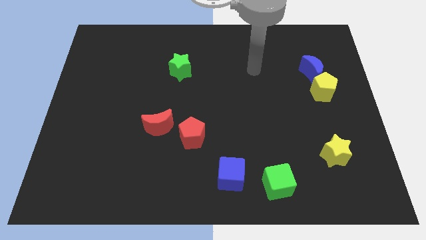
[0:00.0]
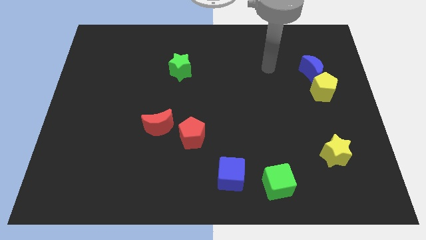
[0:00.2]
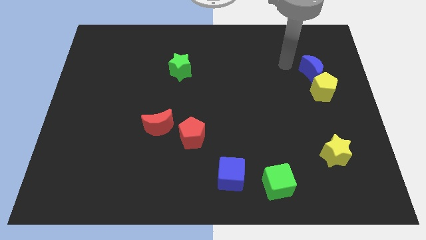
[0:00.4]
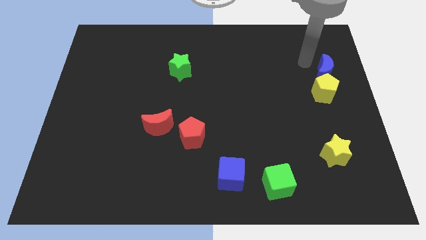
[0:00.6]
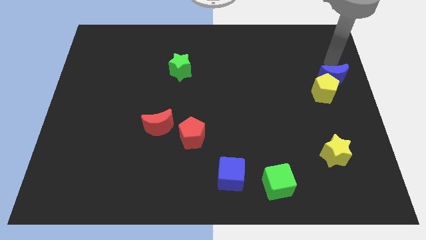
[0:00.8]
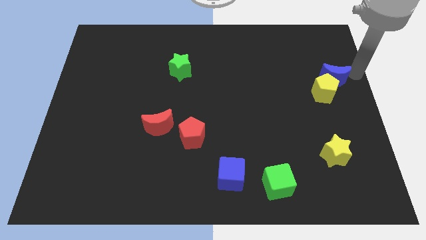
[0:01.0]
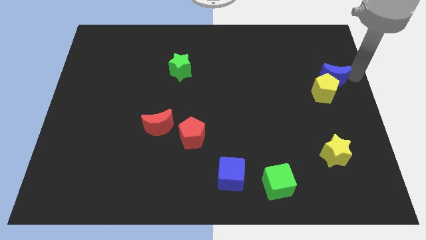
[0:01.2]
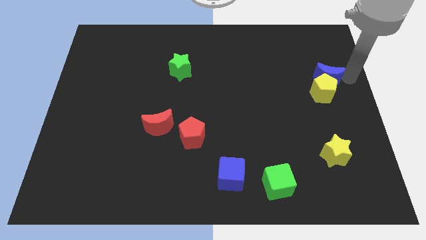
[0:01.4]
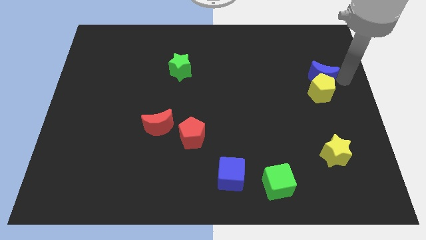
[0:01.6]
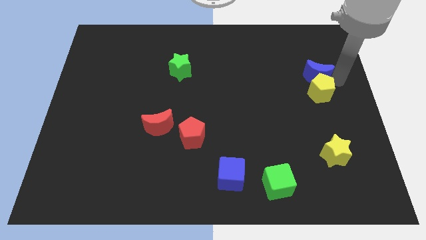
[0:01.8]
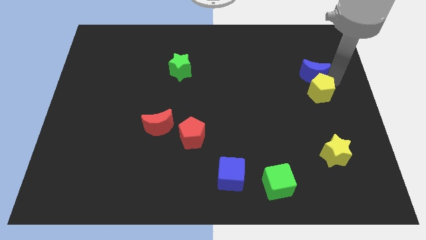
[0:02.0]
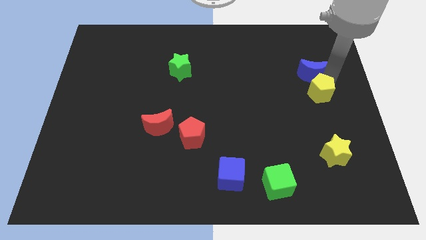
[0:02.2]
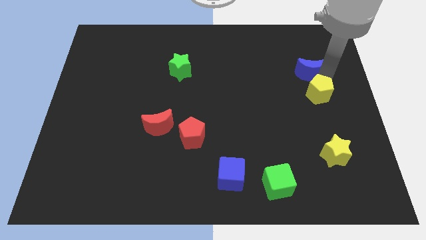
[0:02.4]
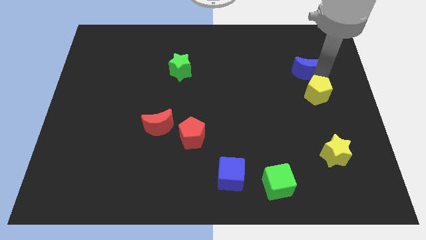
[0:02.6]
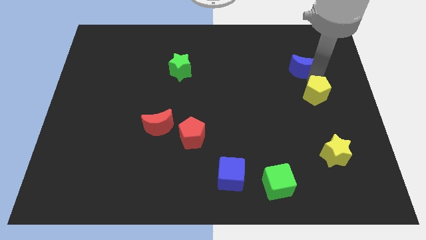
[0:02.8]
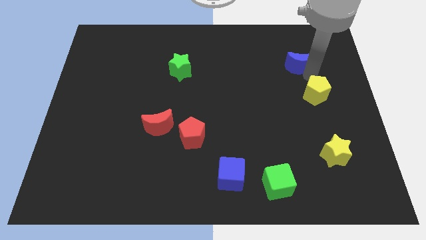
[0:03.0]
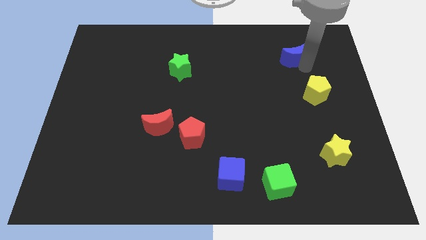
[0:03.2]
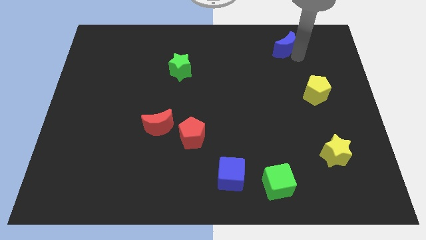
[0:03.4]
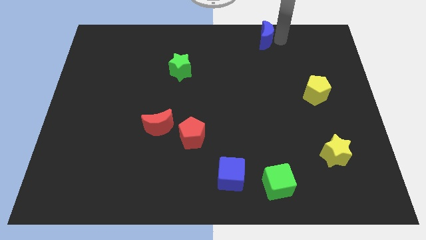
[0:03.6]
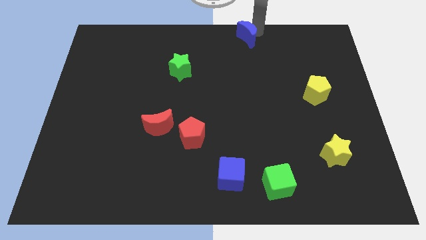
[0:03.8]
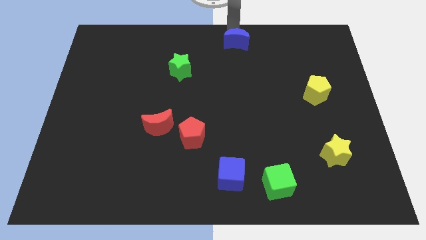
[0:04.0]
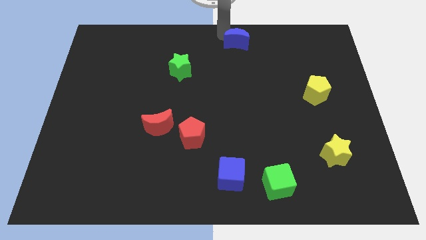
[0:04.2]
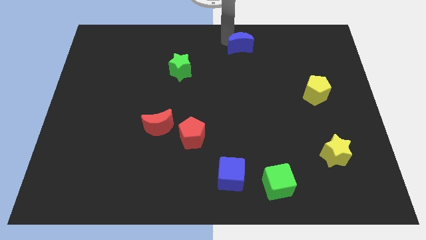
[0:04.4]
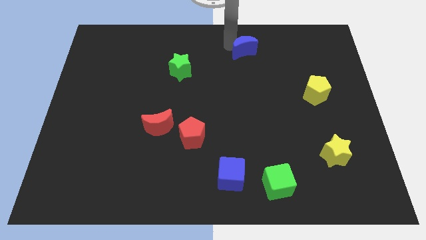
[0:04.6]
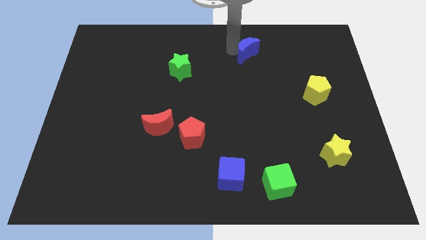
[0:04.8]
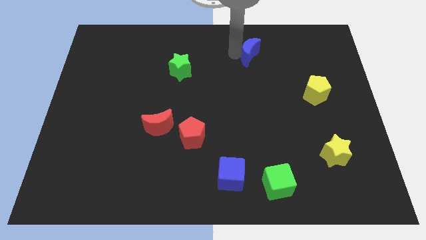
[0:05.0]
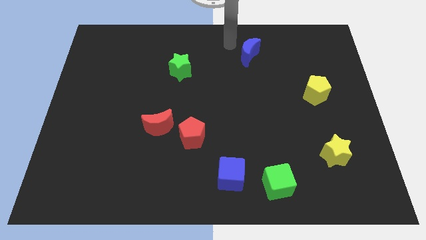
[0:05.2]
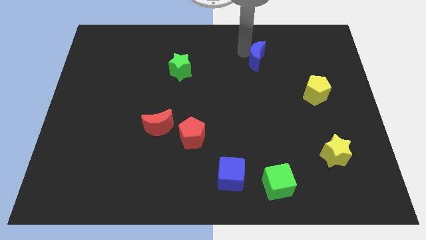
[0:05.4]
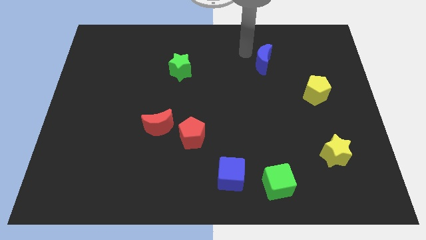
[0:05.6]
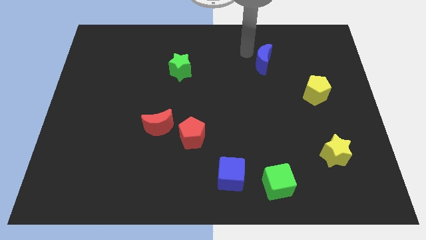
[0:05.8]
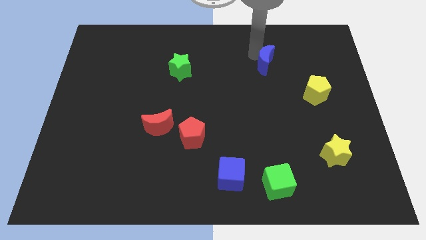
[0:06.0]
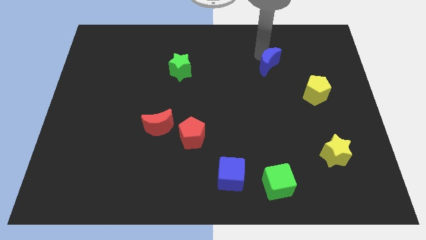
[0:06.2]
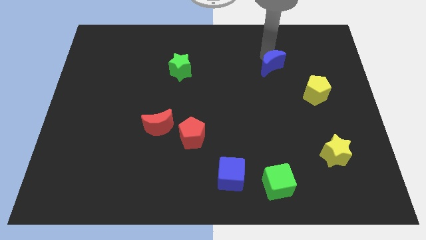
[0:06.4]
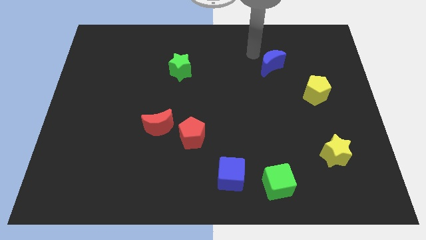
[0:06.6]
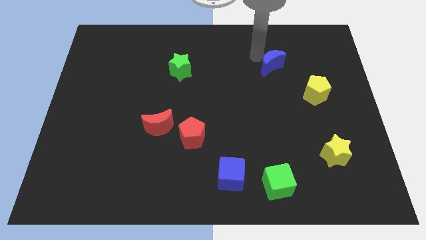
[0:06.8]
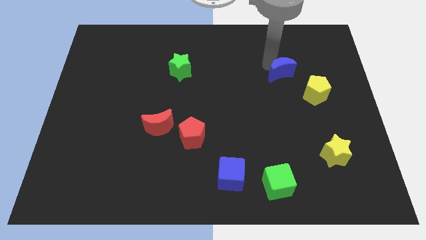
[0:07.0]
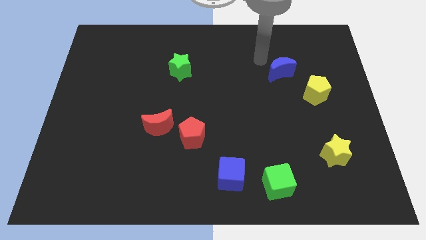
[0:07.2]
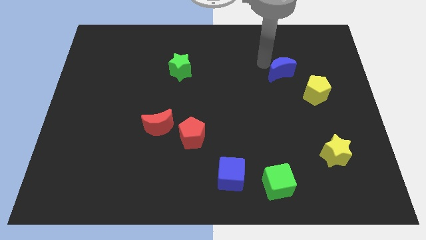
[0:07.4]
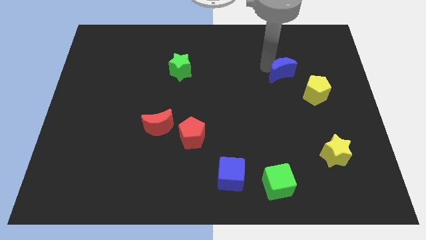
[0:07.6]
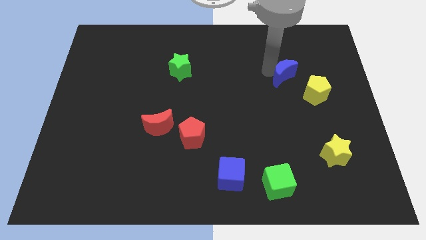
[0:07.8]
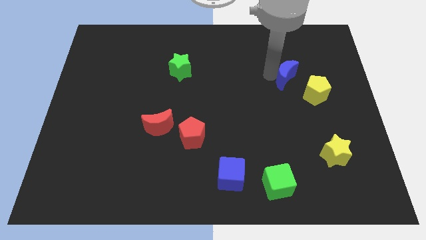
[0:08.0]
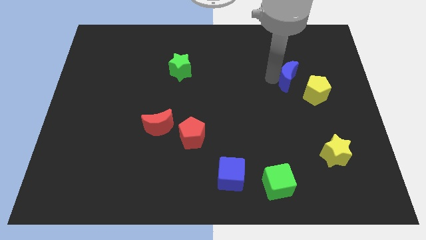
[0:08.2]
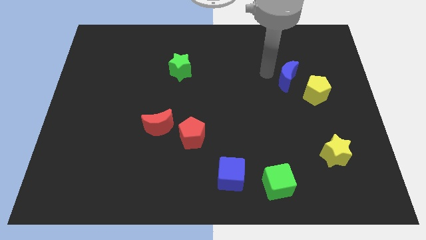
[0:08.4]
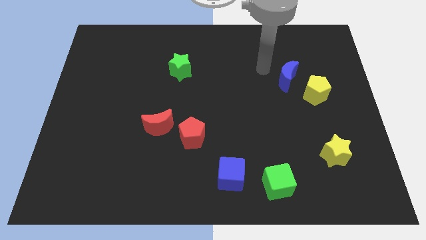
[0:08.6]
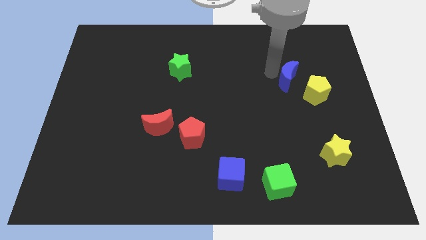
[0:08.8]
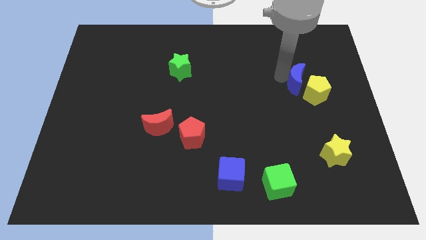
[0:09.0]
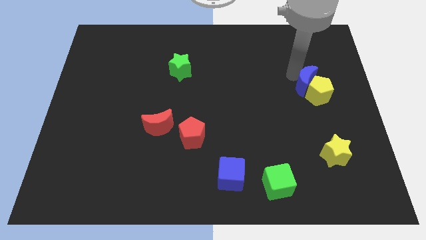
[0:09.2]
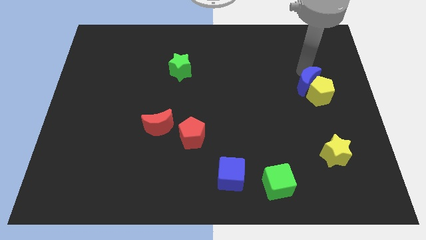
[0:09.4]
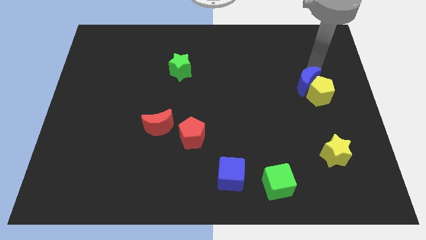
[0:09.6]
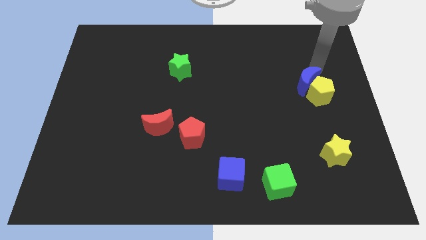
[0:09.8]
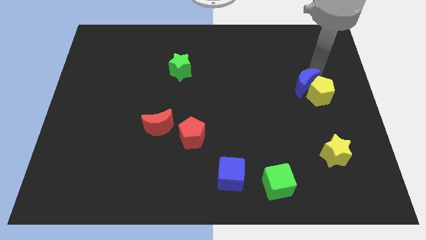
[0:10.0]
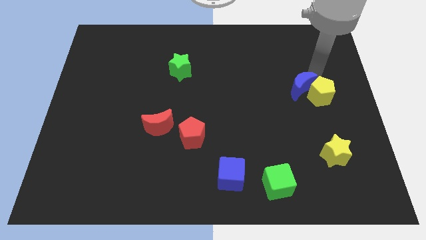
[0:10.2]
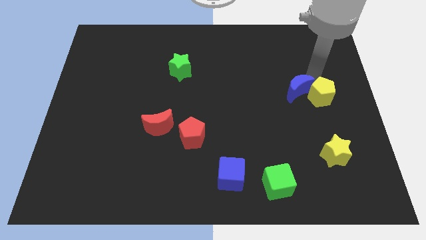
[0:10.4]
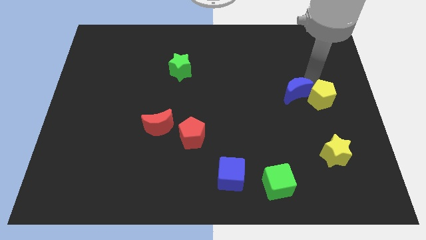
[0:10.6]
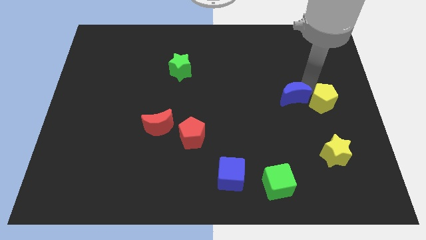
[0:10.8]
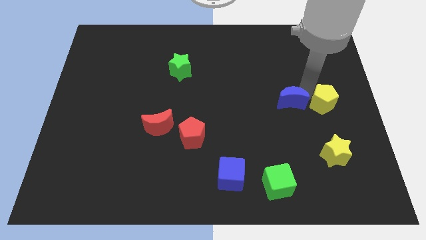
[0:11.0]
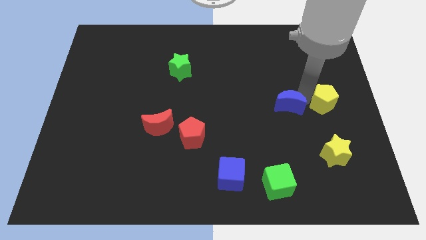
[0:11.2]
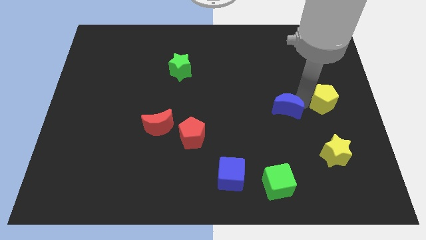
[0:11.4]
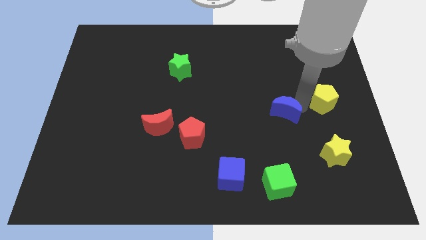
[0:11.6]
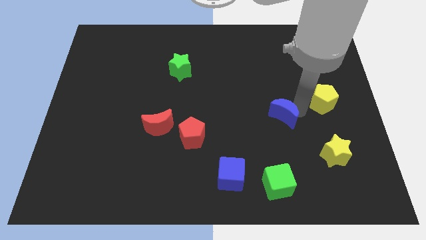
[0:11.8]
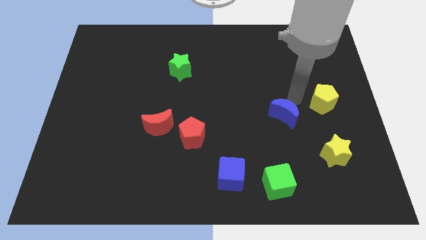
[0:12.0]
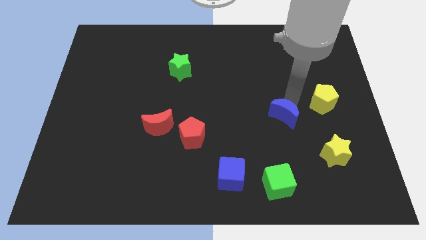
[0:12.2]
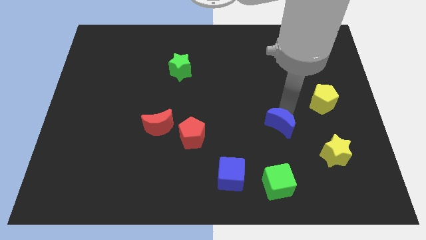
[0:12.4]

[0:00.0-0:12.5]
slide the blue moon above the green cube
